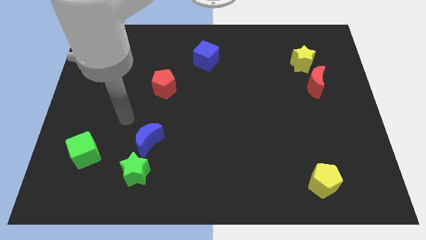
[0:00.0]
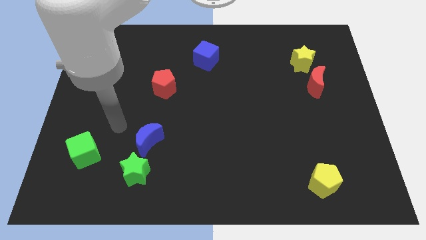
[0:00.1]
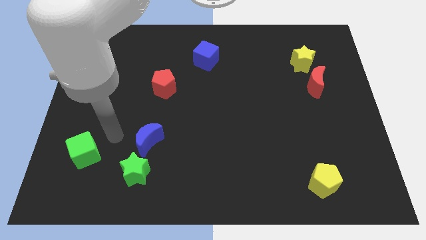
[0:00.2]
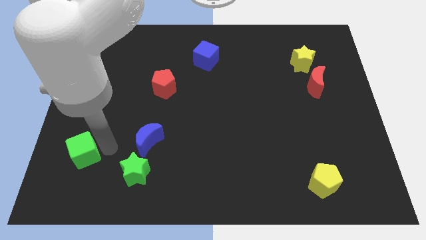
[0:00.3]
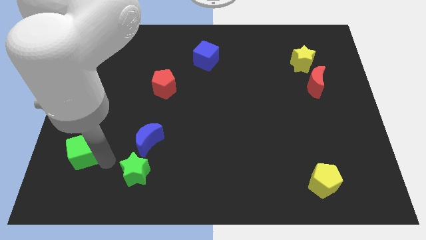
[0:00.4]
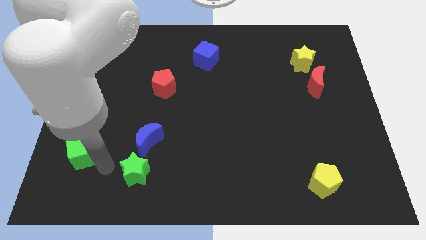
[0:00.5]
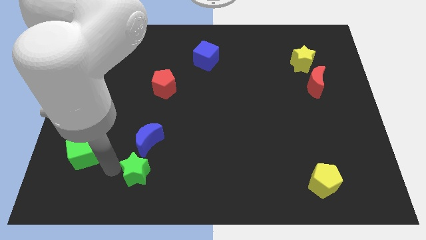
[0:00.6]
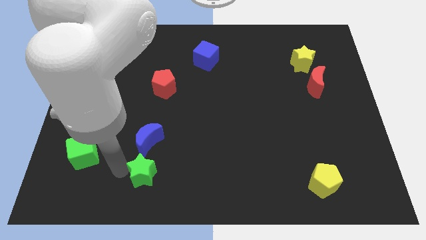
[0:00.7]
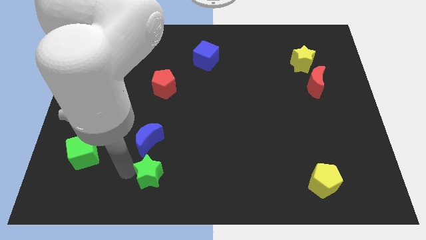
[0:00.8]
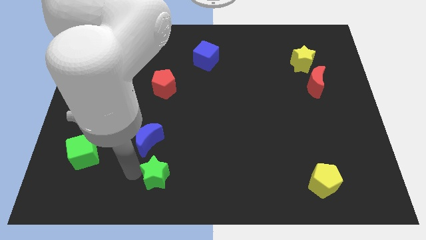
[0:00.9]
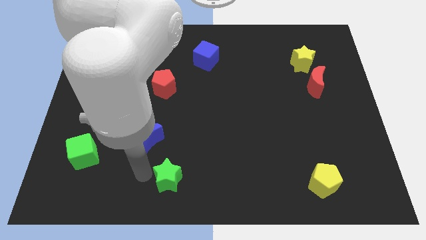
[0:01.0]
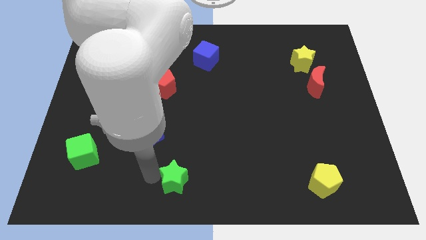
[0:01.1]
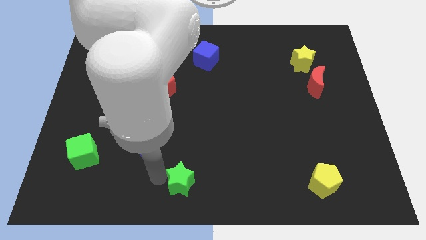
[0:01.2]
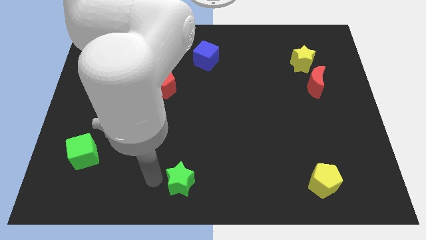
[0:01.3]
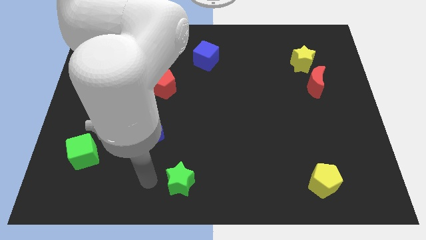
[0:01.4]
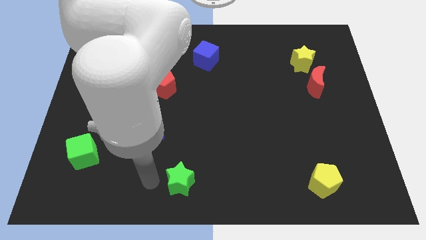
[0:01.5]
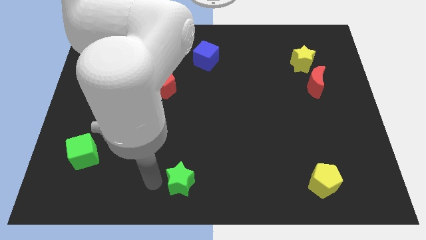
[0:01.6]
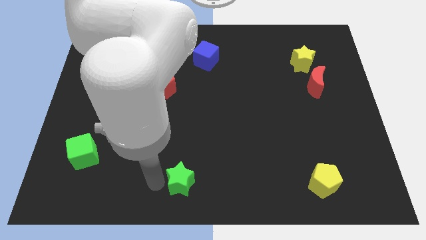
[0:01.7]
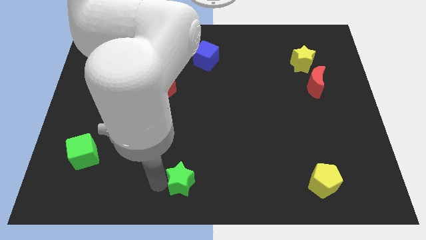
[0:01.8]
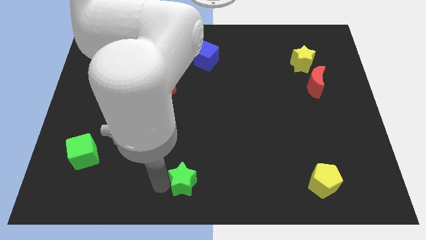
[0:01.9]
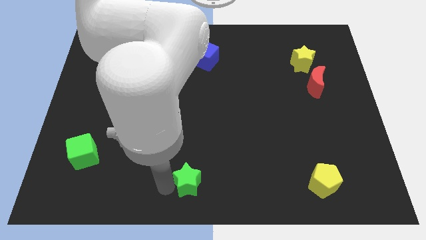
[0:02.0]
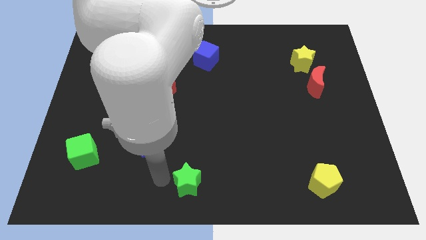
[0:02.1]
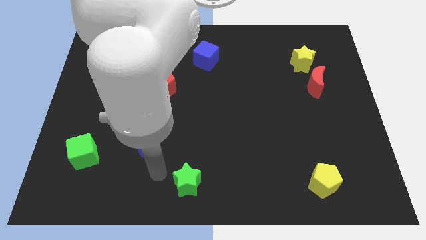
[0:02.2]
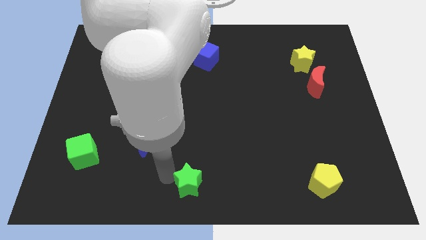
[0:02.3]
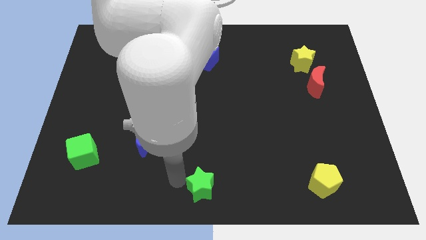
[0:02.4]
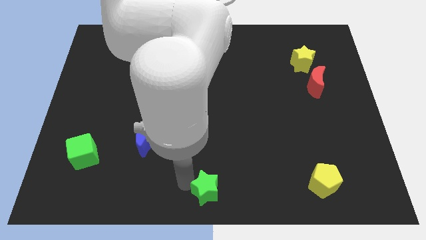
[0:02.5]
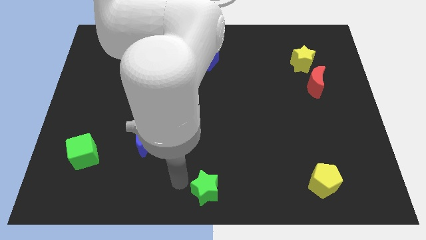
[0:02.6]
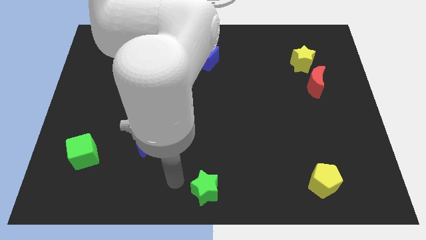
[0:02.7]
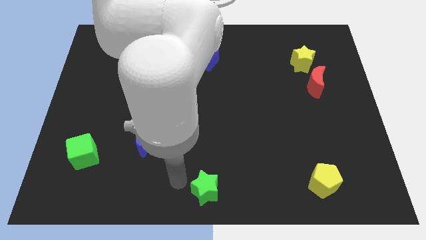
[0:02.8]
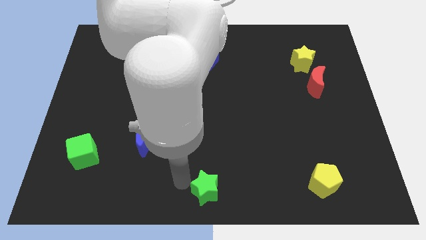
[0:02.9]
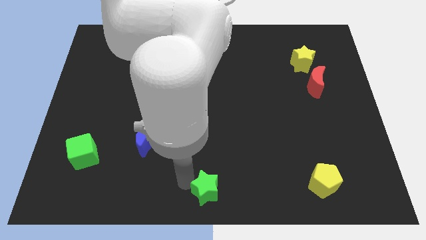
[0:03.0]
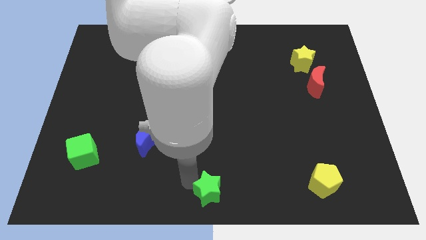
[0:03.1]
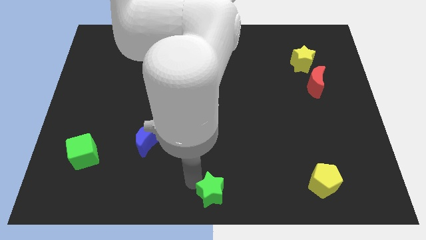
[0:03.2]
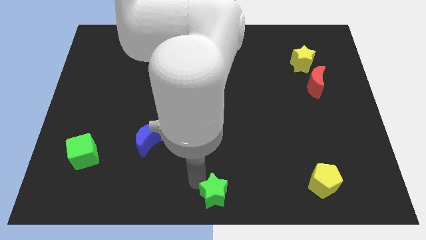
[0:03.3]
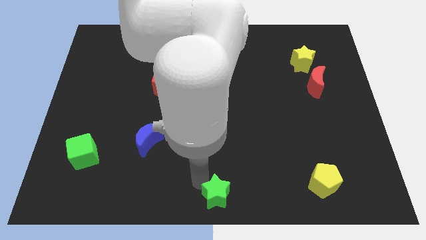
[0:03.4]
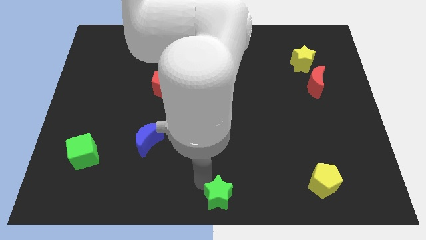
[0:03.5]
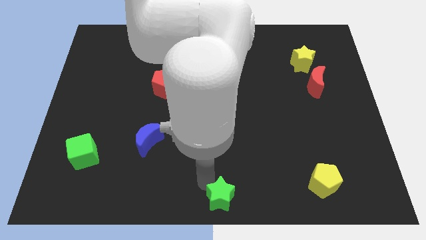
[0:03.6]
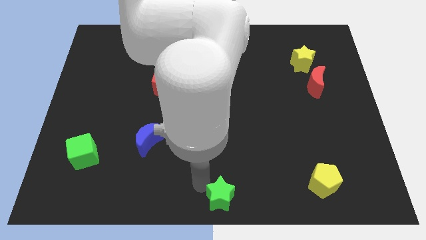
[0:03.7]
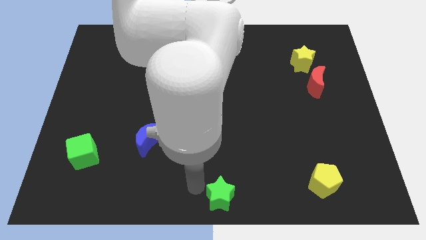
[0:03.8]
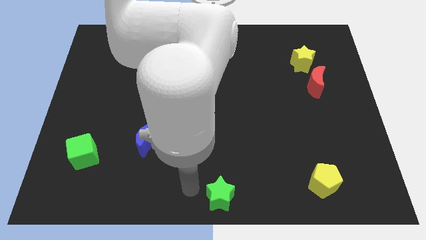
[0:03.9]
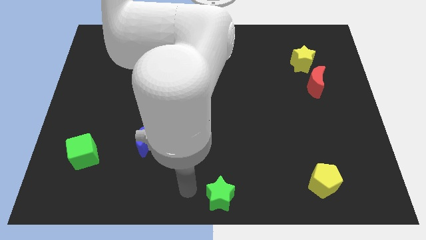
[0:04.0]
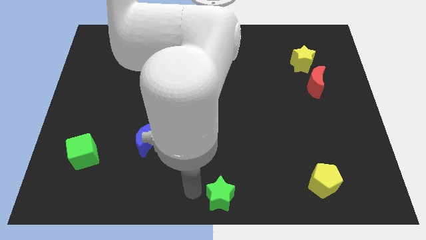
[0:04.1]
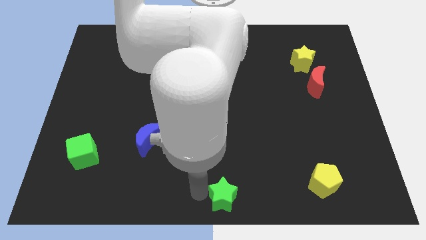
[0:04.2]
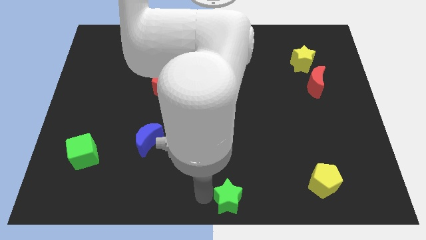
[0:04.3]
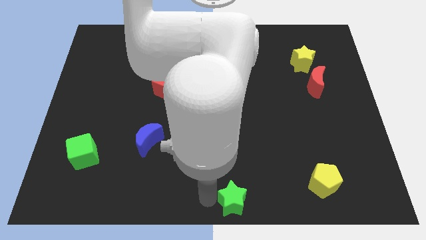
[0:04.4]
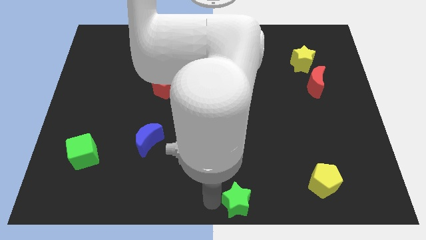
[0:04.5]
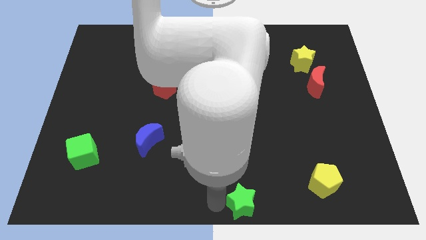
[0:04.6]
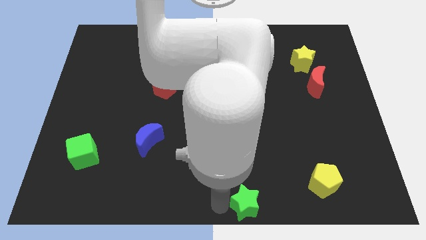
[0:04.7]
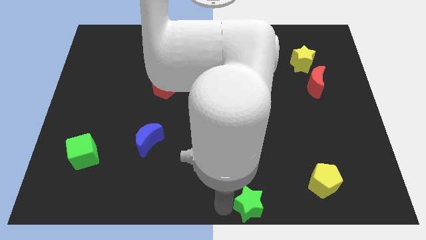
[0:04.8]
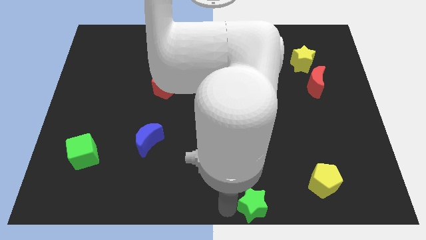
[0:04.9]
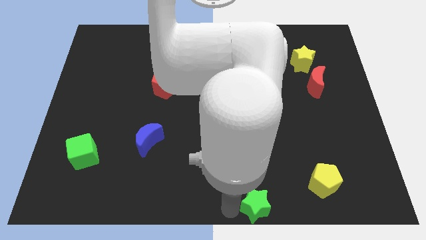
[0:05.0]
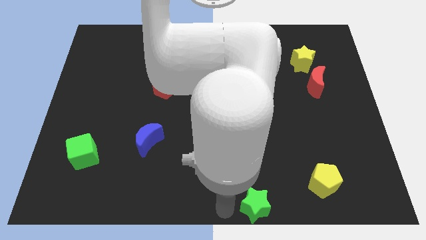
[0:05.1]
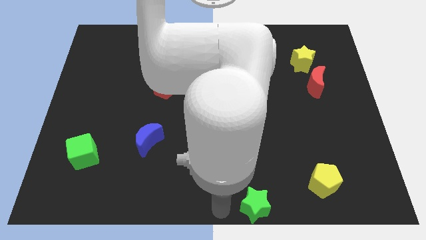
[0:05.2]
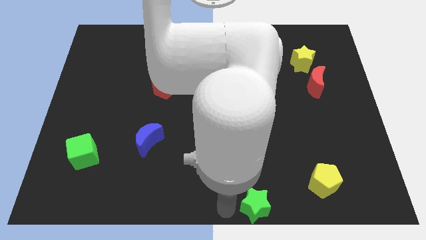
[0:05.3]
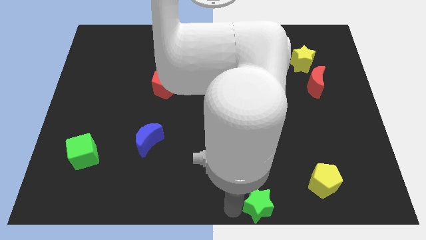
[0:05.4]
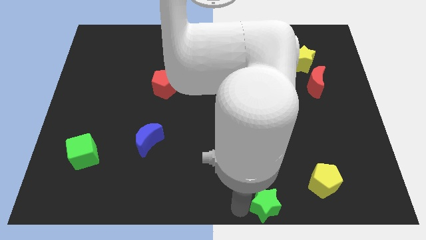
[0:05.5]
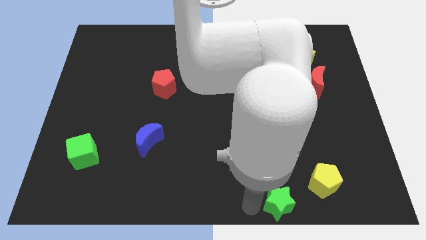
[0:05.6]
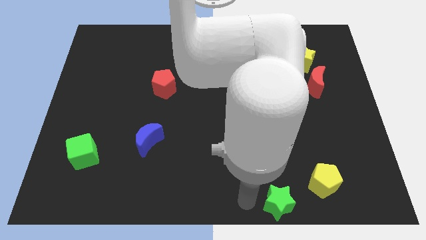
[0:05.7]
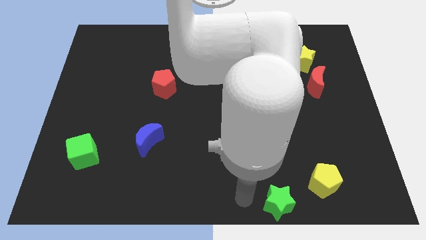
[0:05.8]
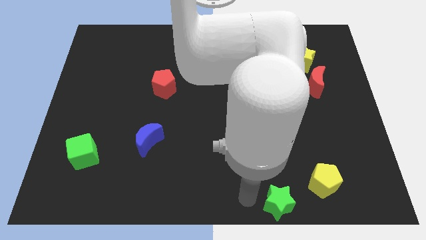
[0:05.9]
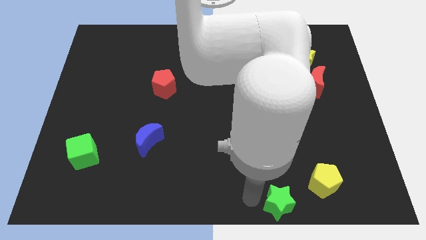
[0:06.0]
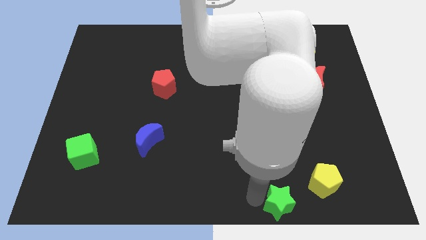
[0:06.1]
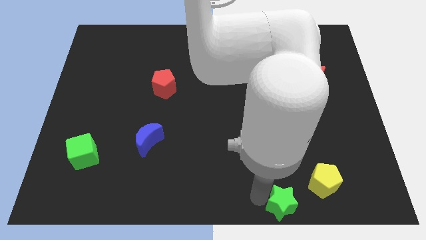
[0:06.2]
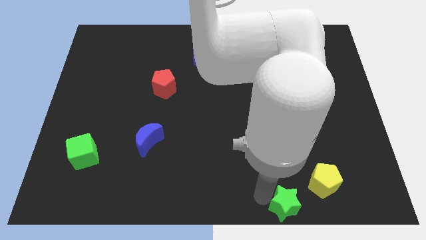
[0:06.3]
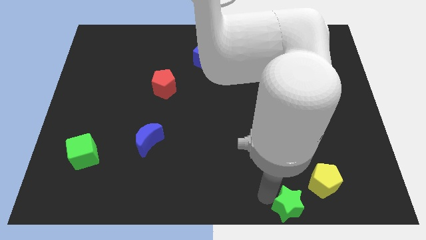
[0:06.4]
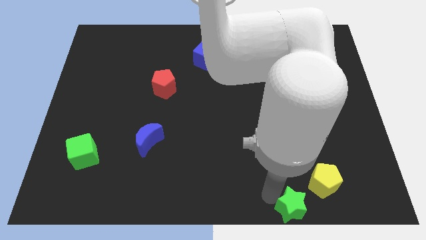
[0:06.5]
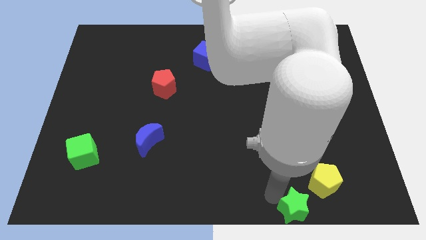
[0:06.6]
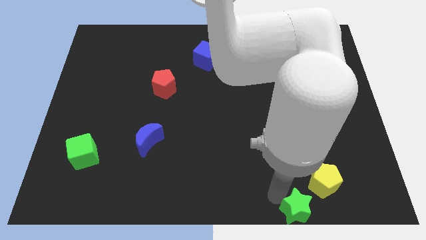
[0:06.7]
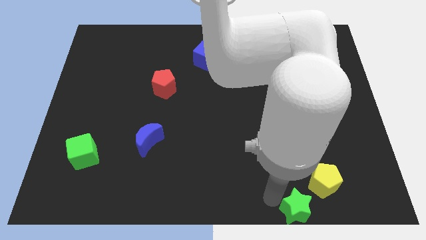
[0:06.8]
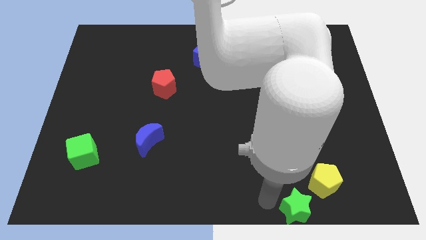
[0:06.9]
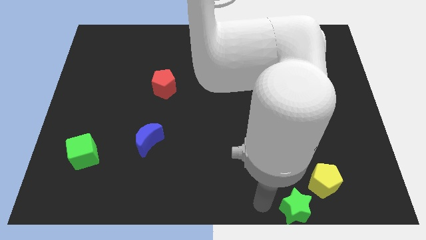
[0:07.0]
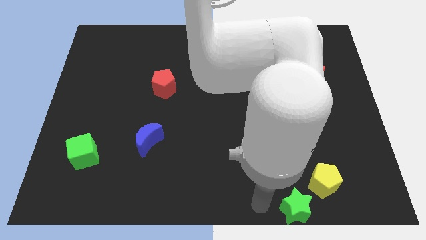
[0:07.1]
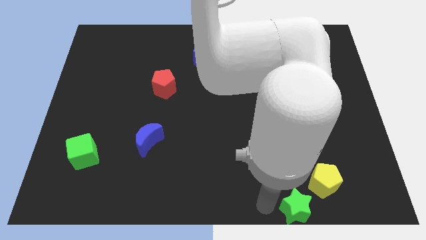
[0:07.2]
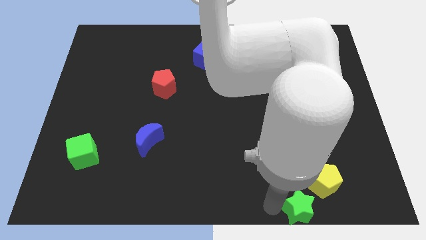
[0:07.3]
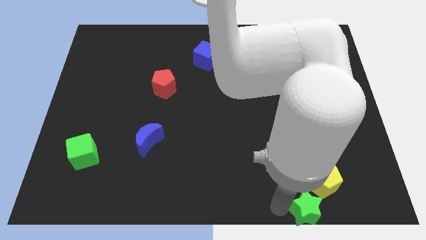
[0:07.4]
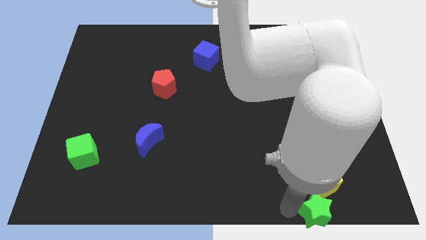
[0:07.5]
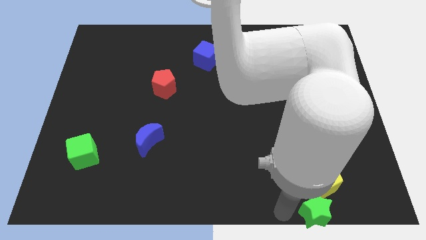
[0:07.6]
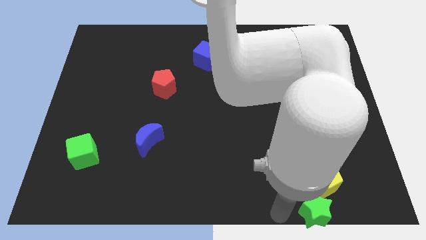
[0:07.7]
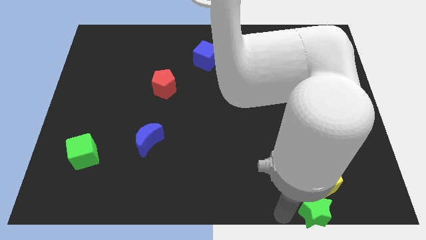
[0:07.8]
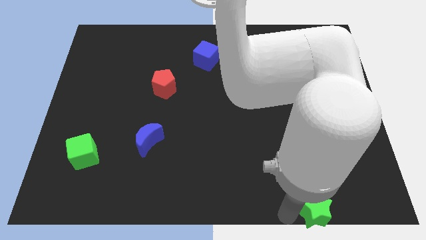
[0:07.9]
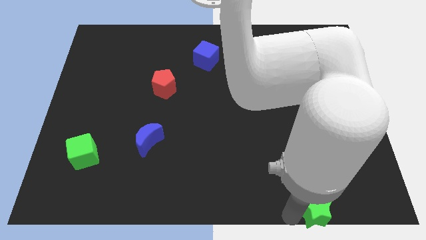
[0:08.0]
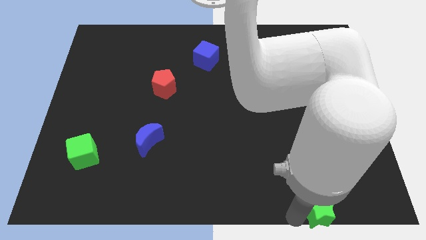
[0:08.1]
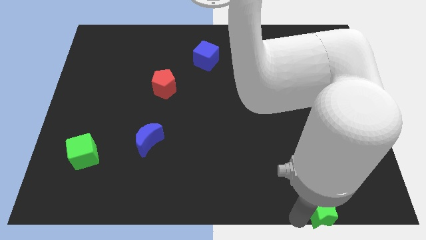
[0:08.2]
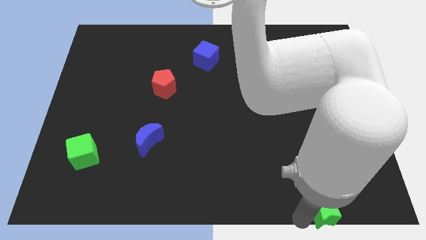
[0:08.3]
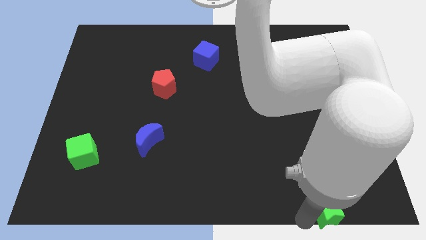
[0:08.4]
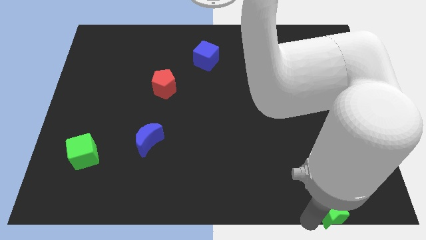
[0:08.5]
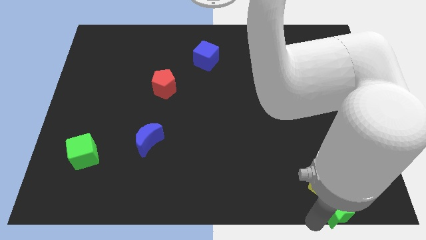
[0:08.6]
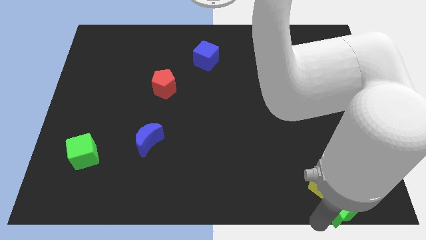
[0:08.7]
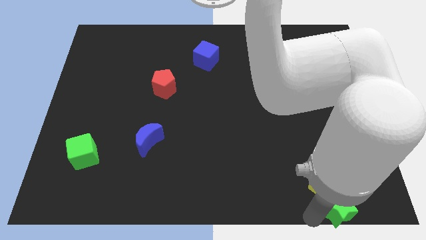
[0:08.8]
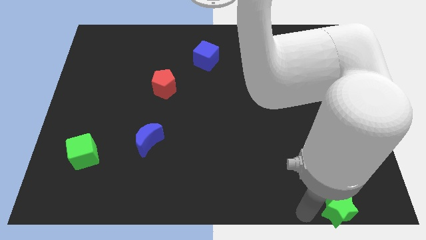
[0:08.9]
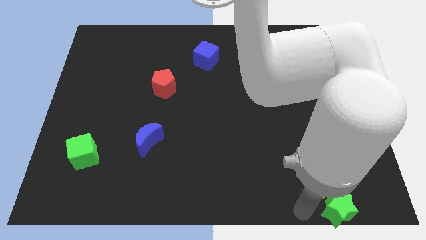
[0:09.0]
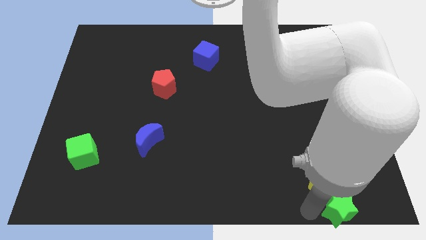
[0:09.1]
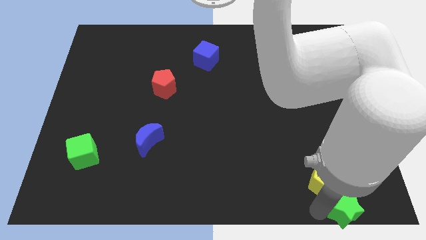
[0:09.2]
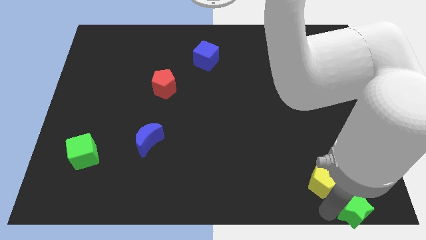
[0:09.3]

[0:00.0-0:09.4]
slide the green star to the bottom right corner
